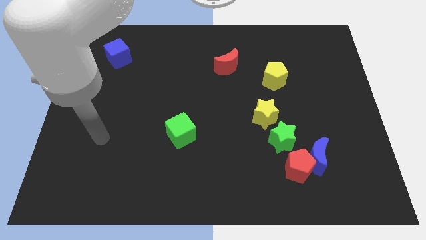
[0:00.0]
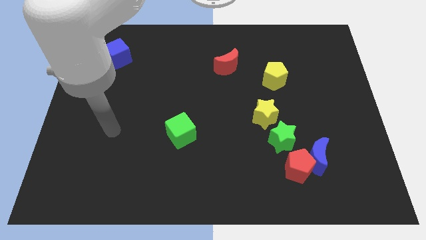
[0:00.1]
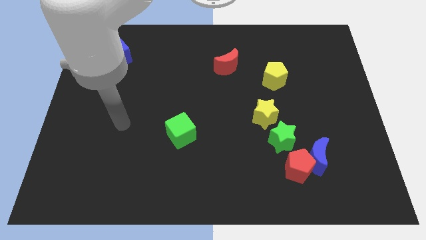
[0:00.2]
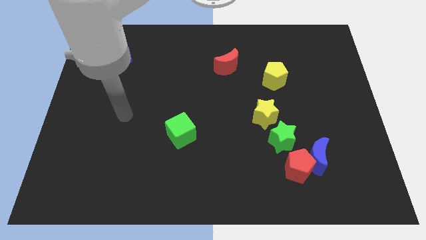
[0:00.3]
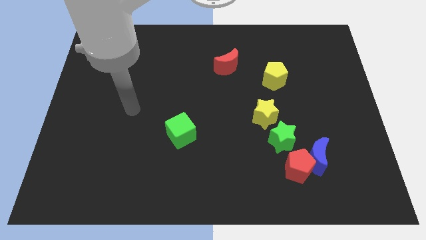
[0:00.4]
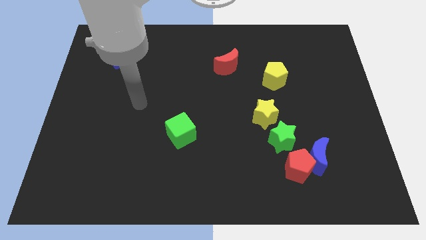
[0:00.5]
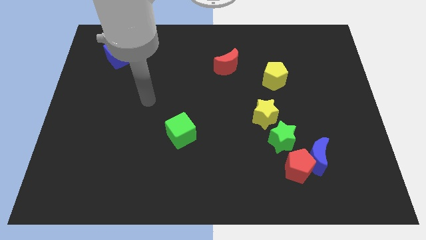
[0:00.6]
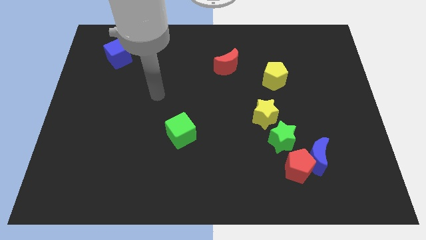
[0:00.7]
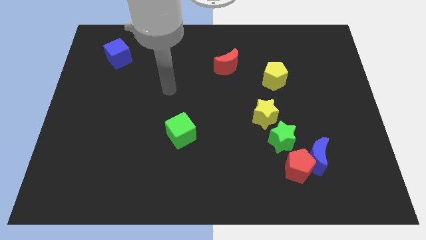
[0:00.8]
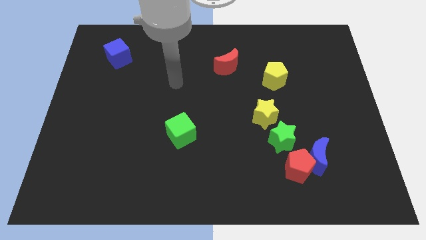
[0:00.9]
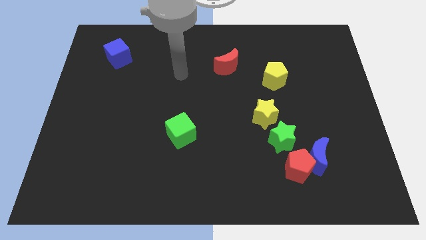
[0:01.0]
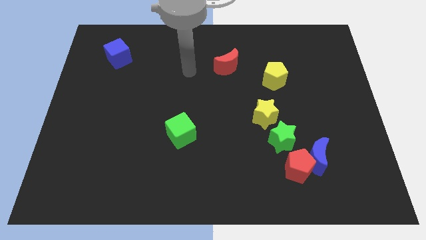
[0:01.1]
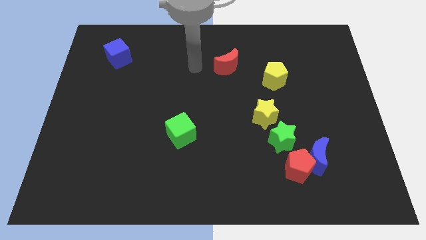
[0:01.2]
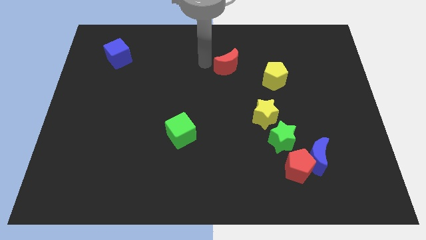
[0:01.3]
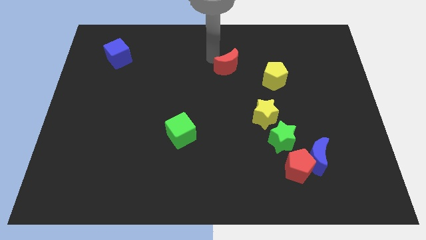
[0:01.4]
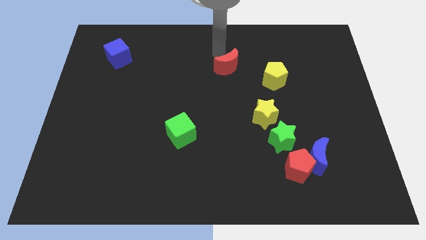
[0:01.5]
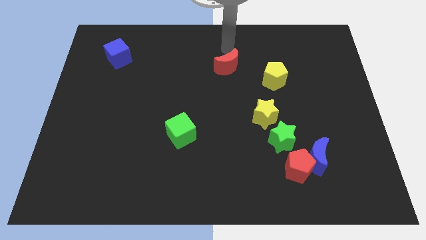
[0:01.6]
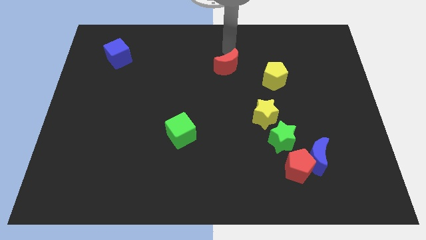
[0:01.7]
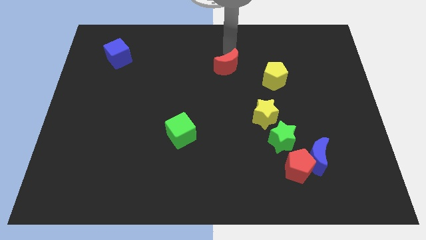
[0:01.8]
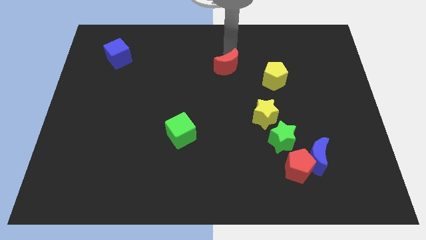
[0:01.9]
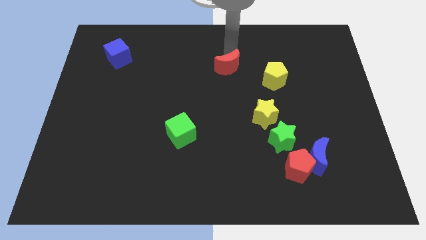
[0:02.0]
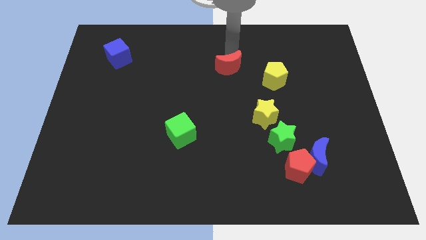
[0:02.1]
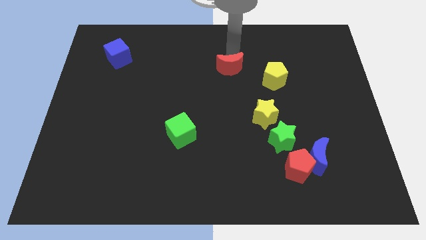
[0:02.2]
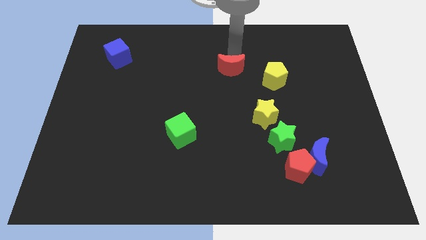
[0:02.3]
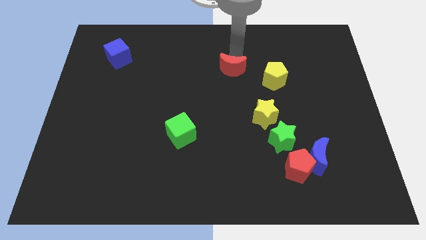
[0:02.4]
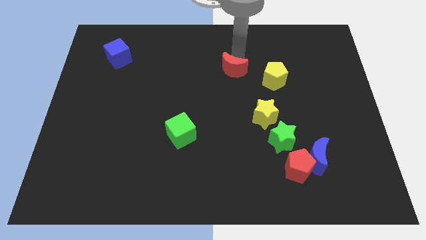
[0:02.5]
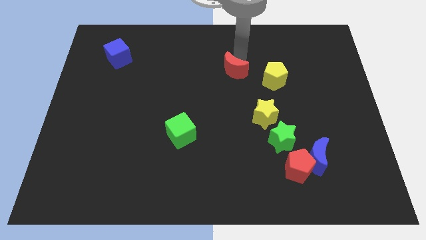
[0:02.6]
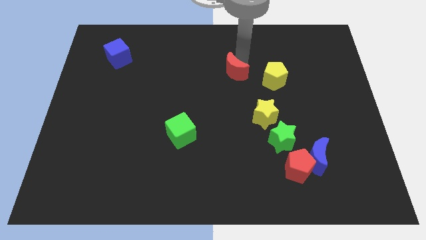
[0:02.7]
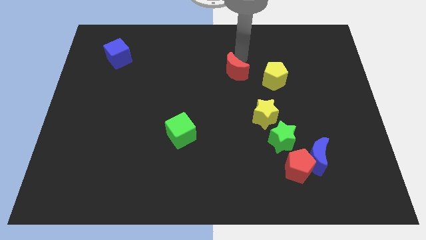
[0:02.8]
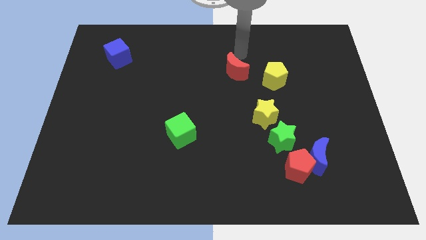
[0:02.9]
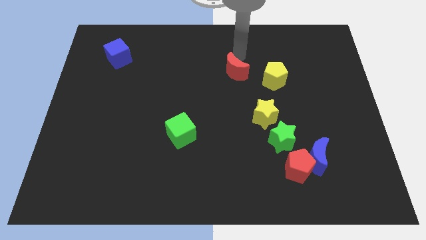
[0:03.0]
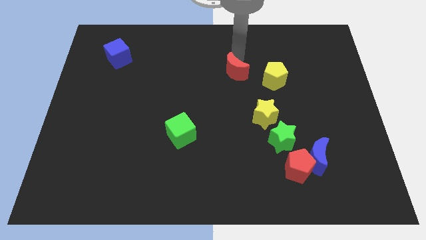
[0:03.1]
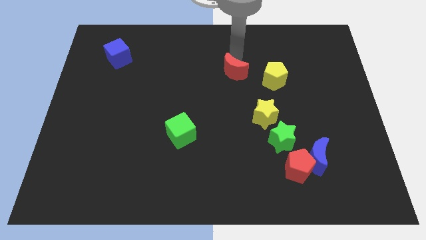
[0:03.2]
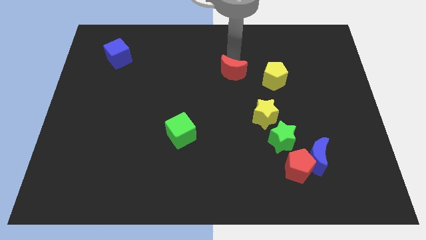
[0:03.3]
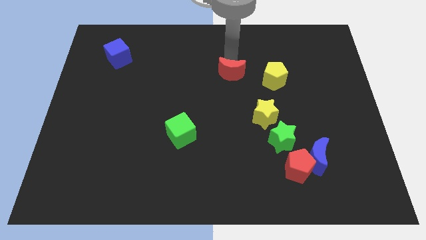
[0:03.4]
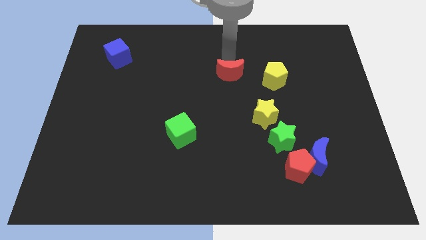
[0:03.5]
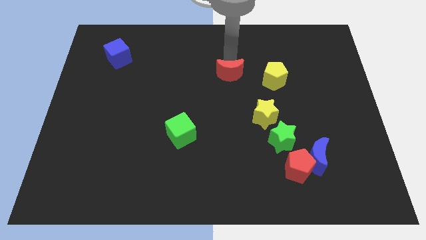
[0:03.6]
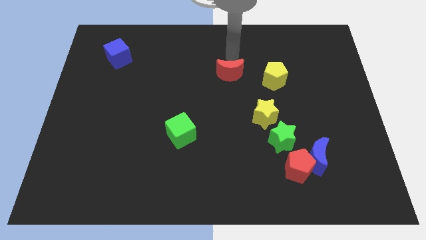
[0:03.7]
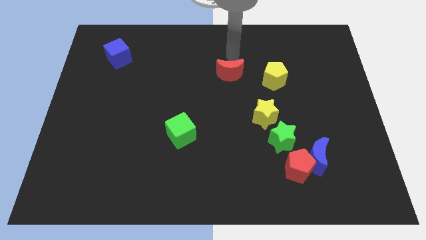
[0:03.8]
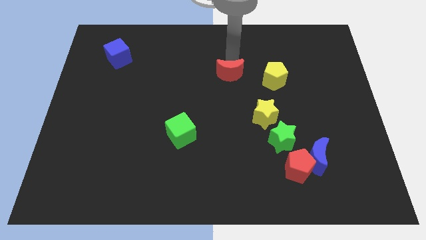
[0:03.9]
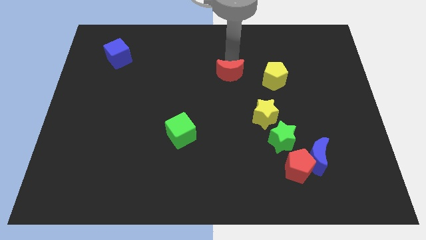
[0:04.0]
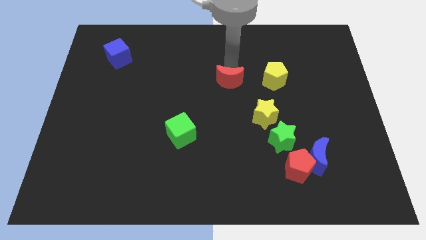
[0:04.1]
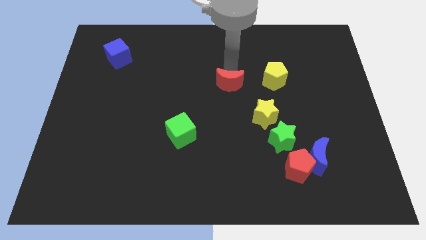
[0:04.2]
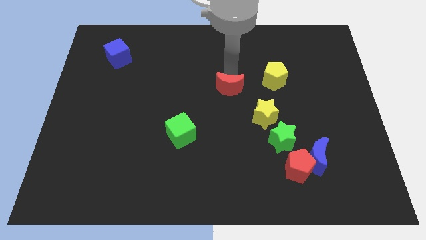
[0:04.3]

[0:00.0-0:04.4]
move the red moon downwards a little bit

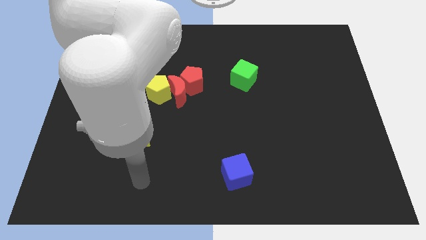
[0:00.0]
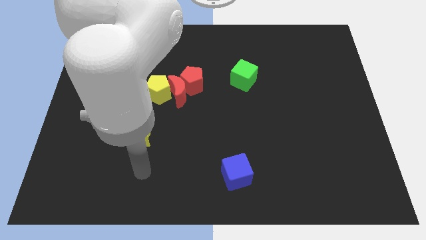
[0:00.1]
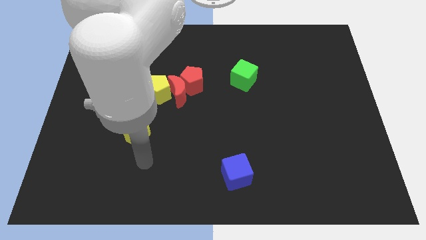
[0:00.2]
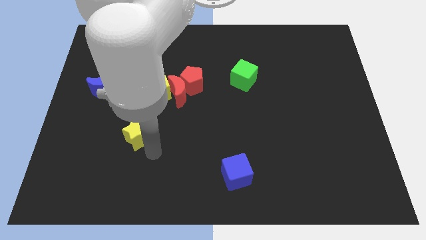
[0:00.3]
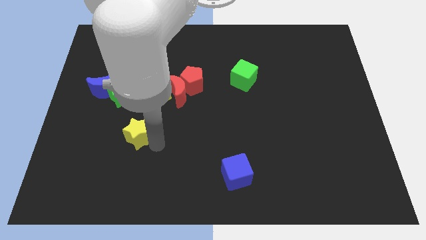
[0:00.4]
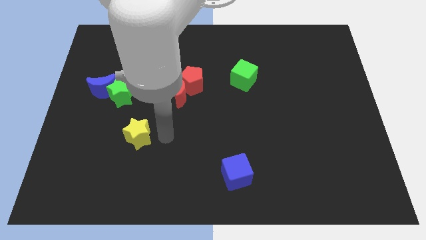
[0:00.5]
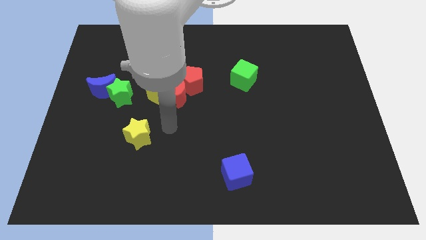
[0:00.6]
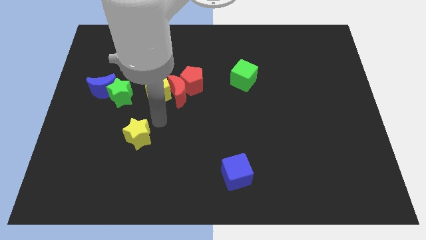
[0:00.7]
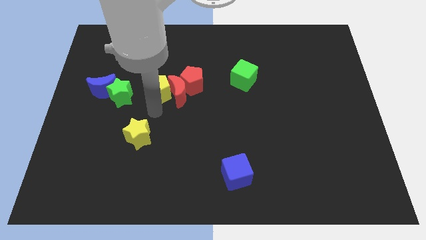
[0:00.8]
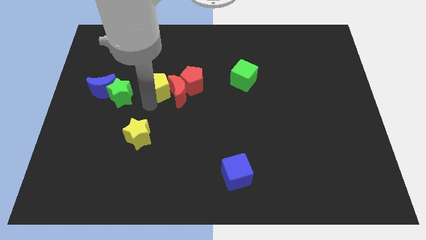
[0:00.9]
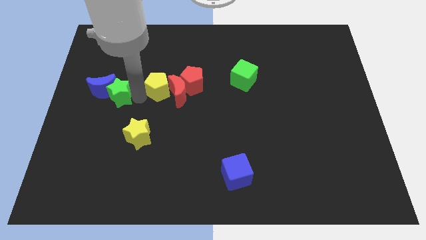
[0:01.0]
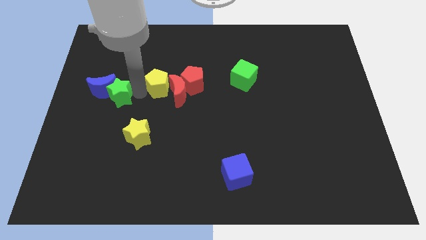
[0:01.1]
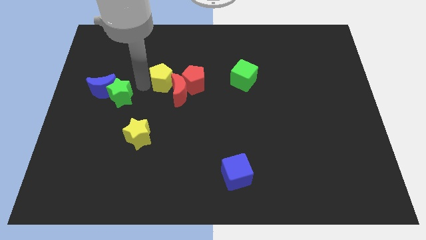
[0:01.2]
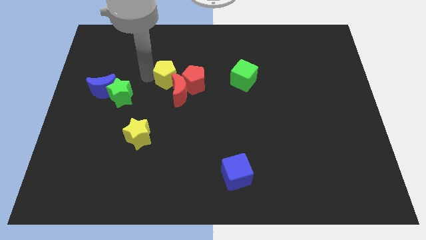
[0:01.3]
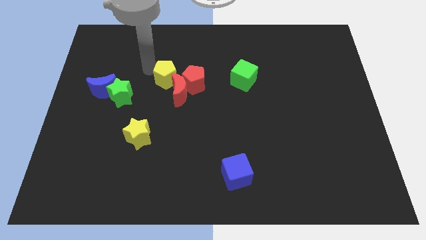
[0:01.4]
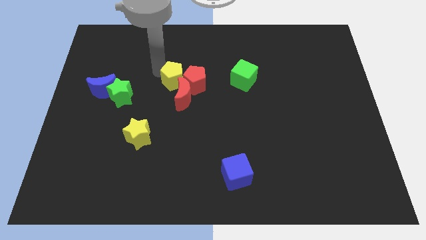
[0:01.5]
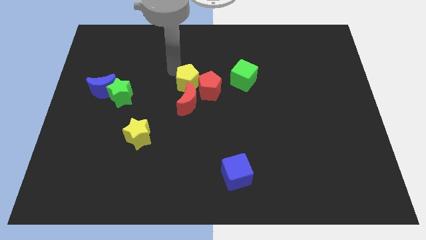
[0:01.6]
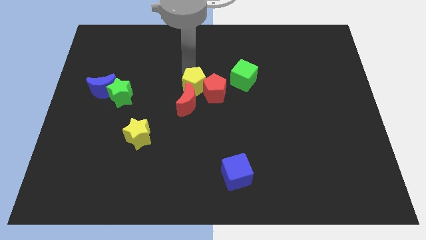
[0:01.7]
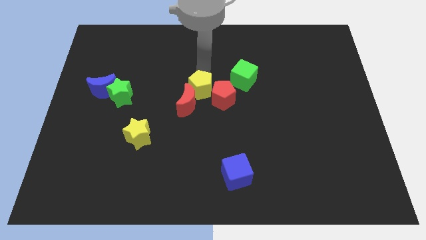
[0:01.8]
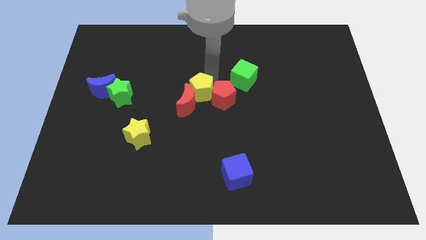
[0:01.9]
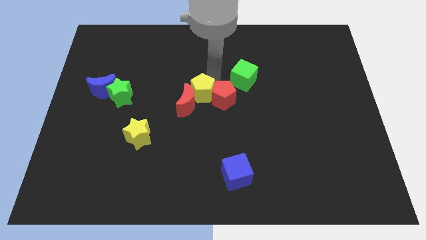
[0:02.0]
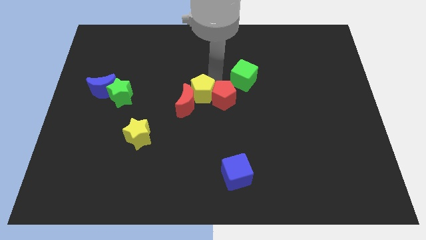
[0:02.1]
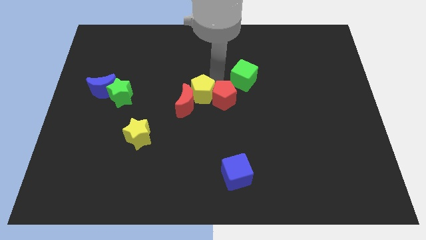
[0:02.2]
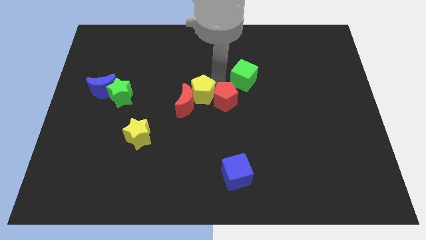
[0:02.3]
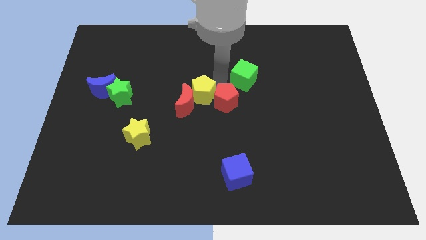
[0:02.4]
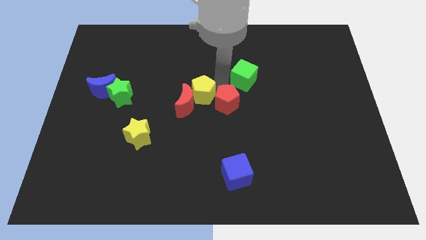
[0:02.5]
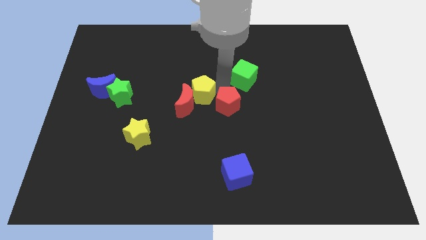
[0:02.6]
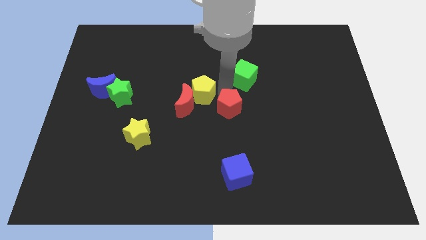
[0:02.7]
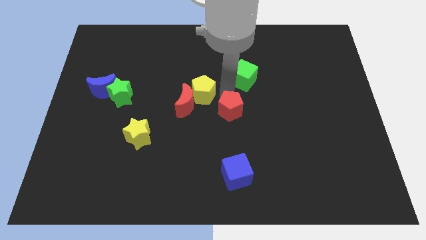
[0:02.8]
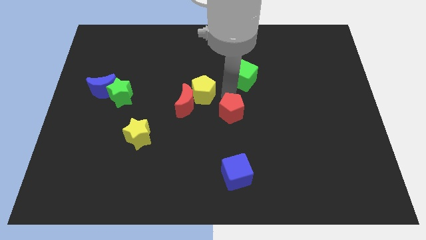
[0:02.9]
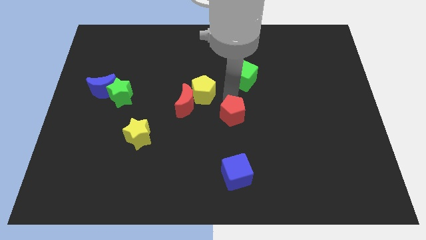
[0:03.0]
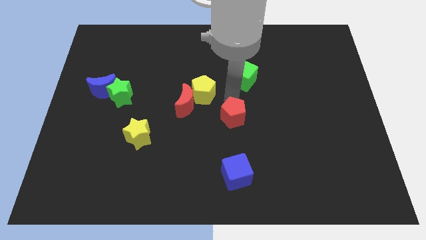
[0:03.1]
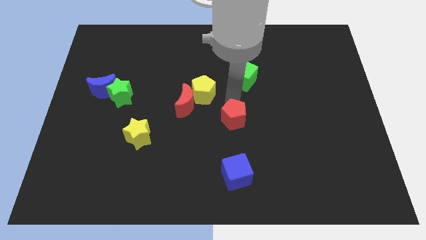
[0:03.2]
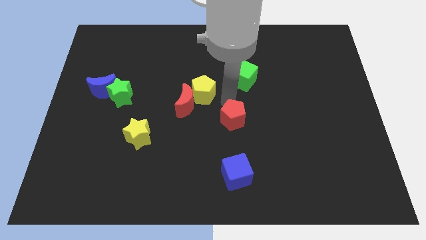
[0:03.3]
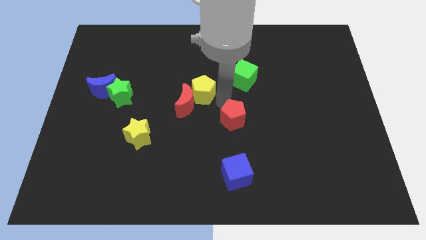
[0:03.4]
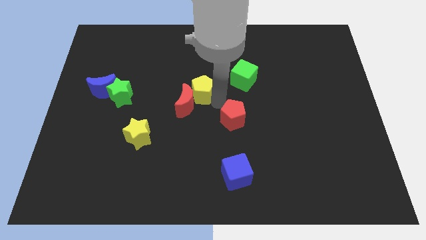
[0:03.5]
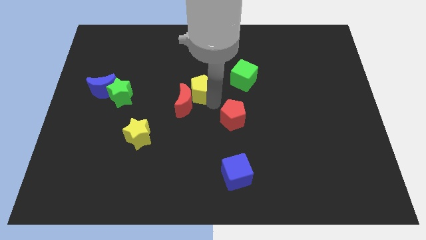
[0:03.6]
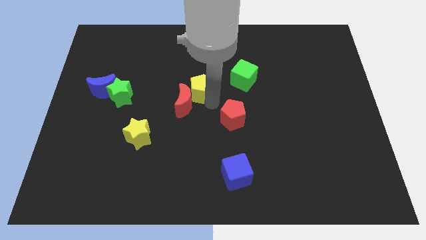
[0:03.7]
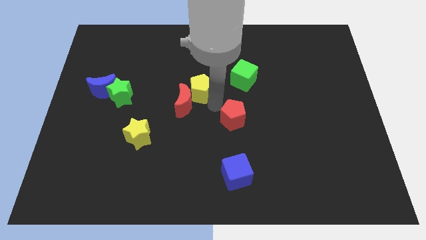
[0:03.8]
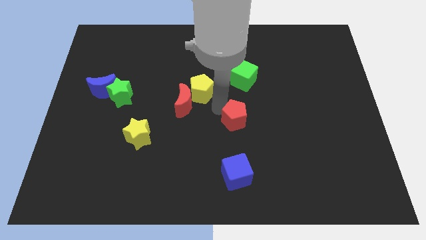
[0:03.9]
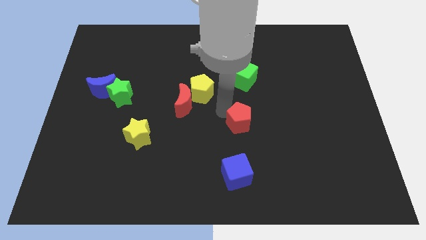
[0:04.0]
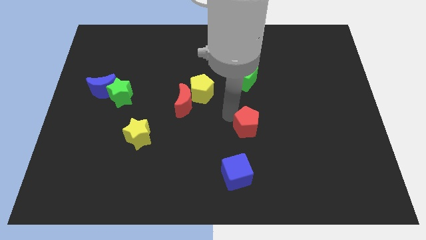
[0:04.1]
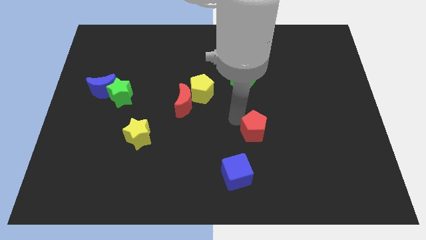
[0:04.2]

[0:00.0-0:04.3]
slide the red pentagon downwards and right diagonally
